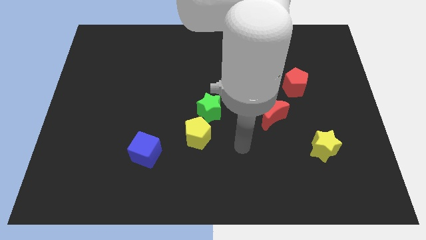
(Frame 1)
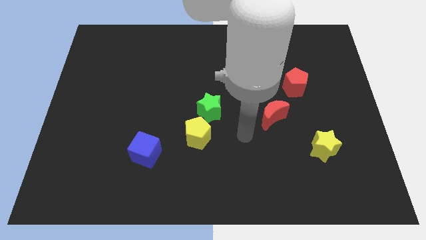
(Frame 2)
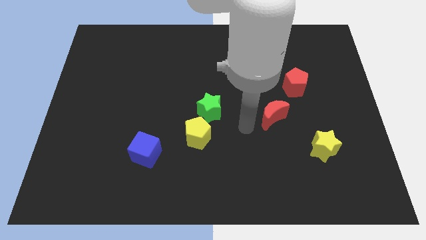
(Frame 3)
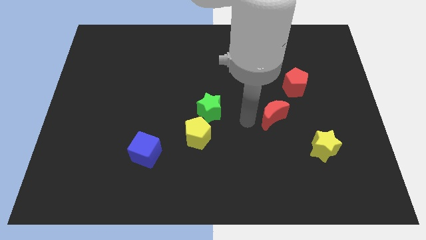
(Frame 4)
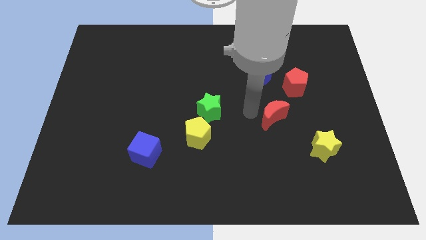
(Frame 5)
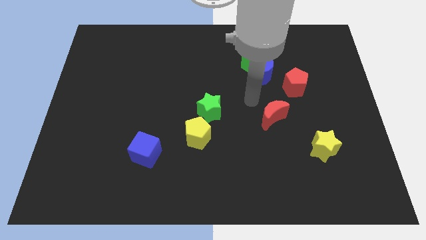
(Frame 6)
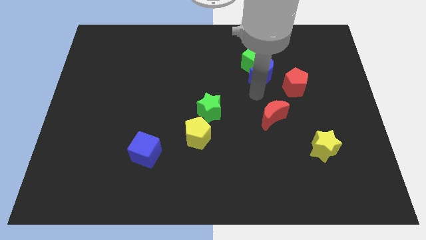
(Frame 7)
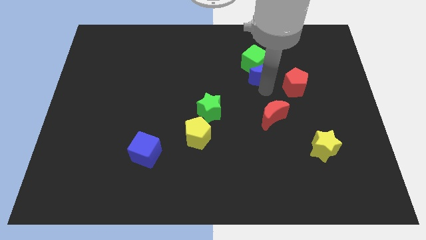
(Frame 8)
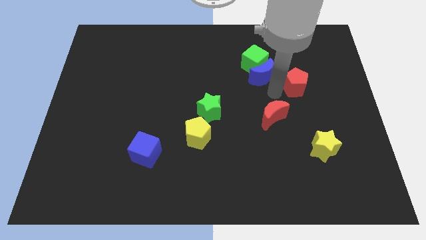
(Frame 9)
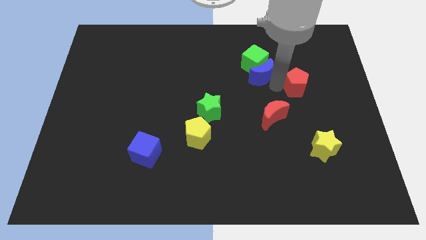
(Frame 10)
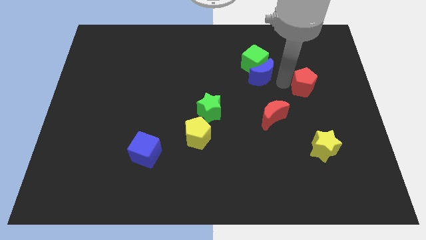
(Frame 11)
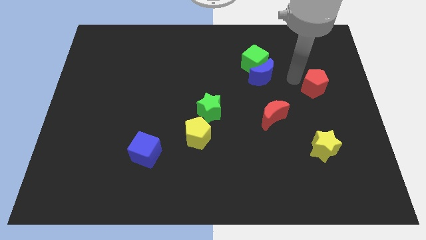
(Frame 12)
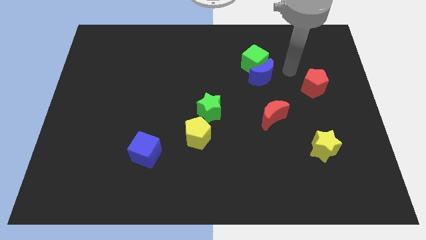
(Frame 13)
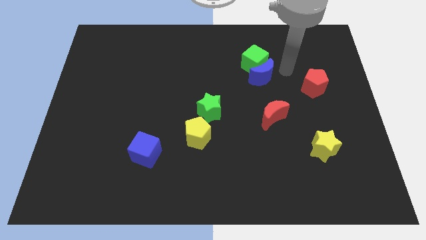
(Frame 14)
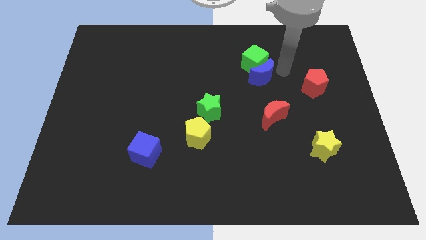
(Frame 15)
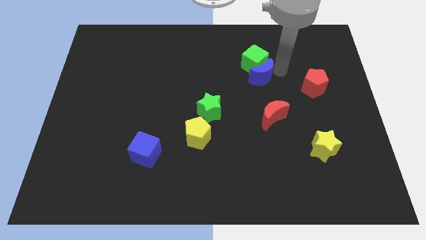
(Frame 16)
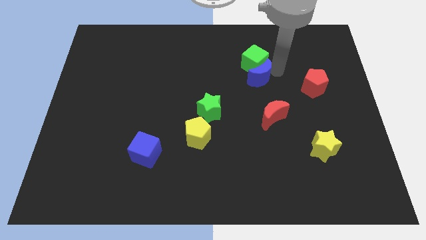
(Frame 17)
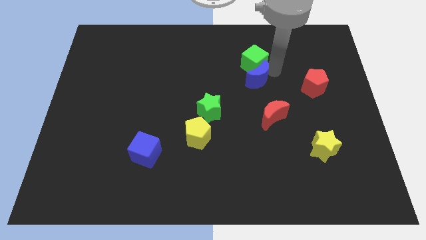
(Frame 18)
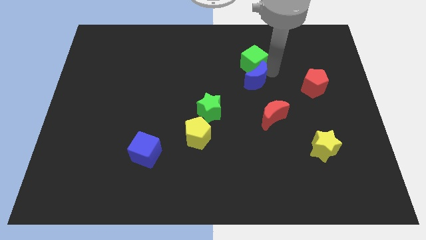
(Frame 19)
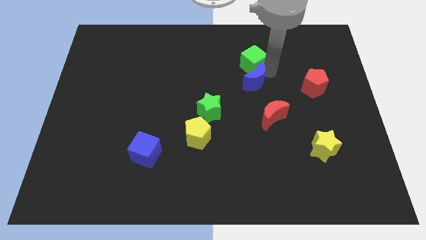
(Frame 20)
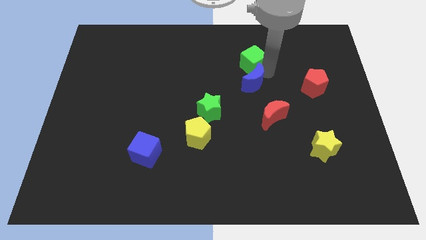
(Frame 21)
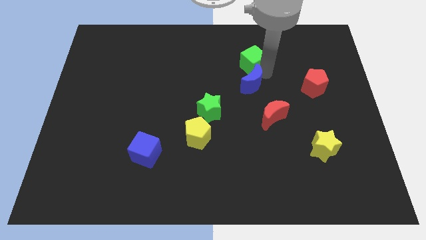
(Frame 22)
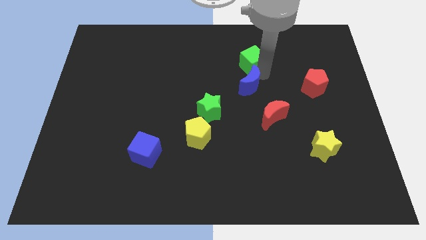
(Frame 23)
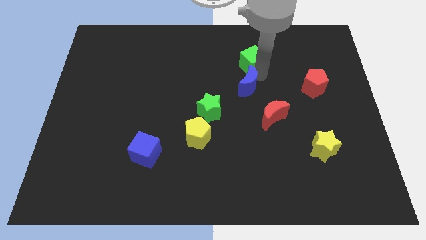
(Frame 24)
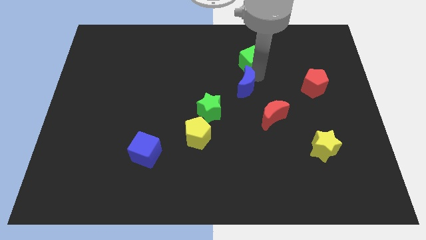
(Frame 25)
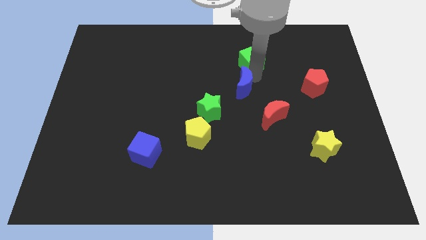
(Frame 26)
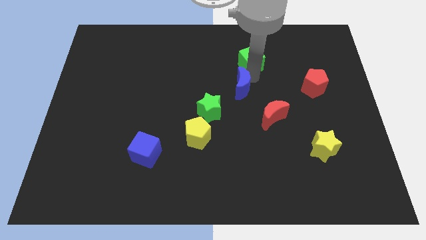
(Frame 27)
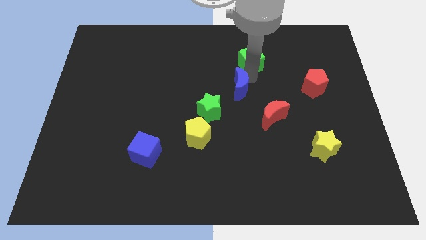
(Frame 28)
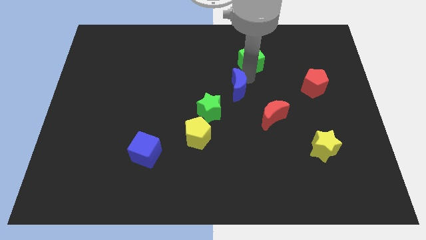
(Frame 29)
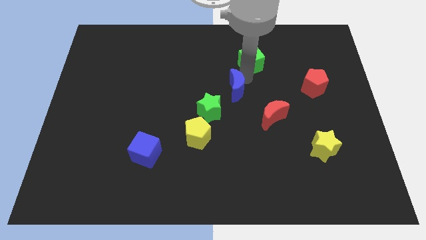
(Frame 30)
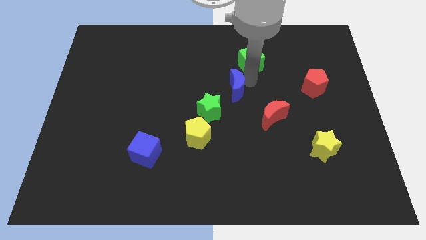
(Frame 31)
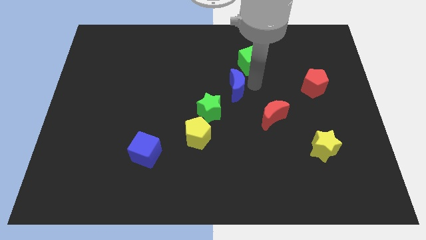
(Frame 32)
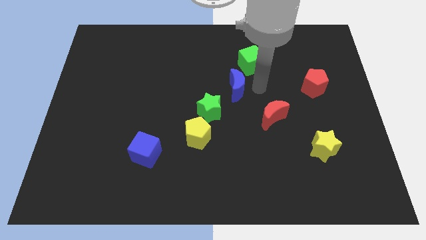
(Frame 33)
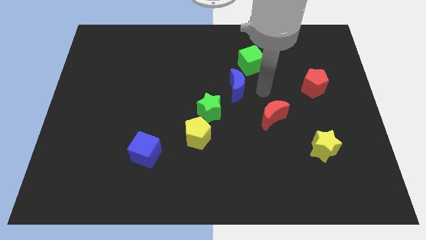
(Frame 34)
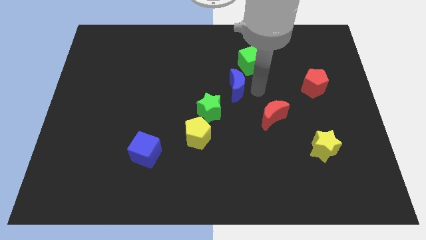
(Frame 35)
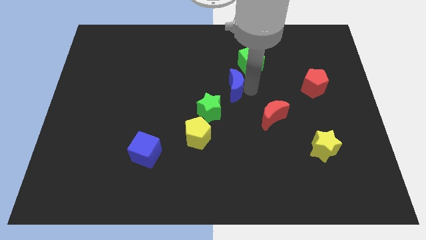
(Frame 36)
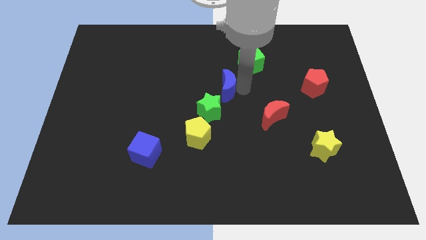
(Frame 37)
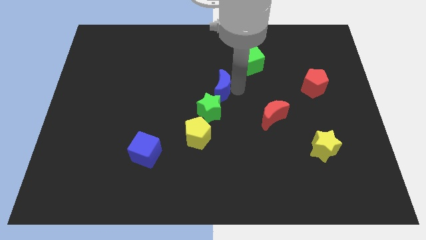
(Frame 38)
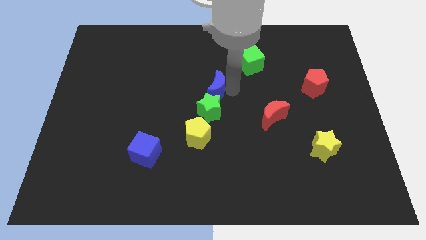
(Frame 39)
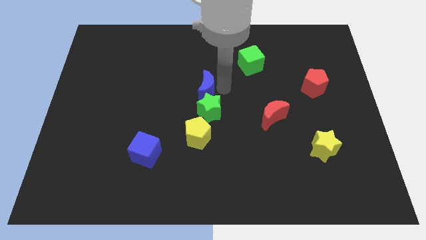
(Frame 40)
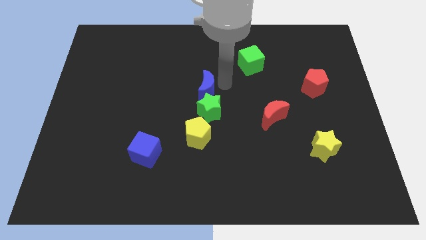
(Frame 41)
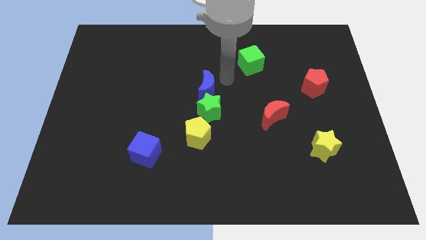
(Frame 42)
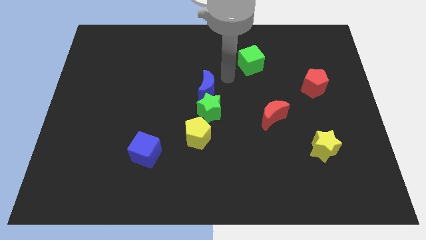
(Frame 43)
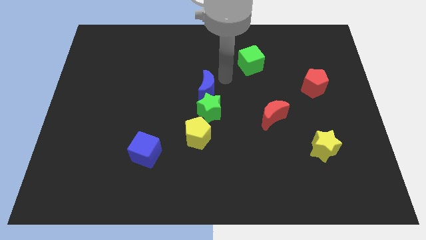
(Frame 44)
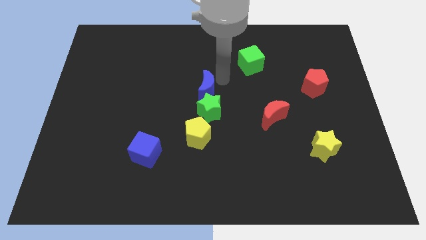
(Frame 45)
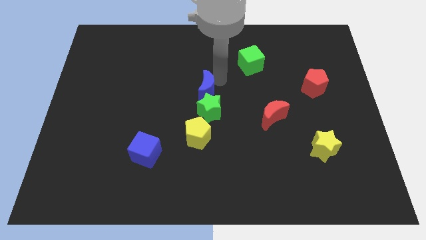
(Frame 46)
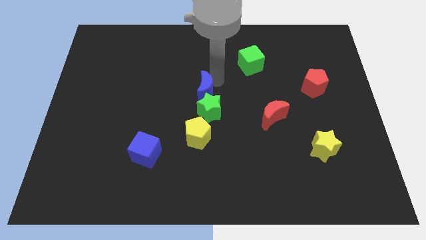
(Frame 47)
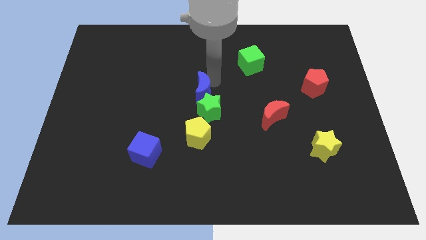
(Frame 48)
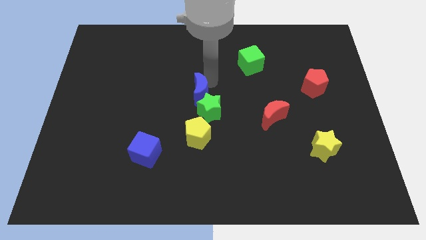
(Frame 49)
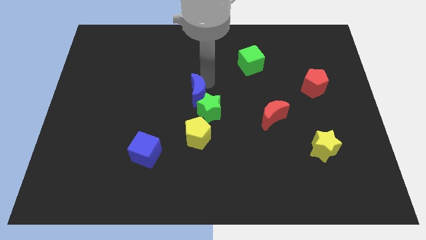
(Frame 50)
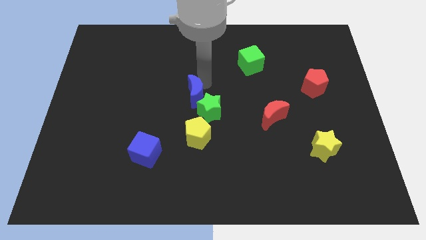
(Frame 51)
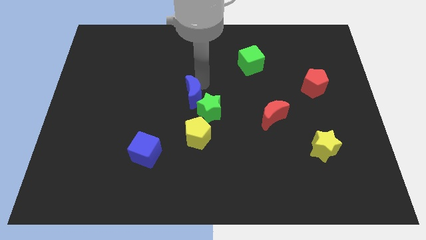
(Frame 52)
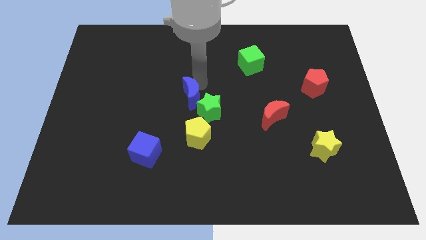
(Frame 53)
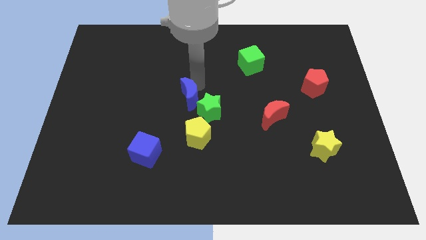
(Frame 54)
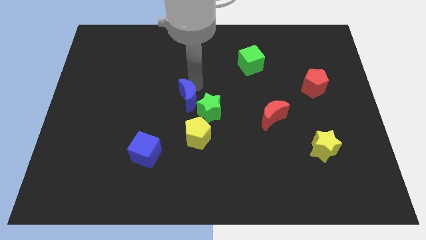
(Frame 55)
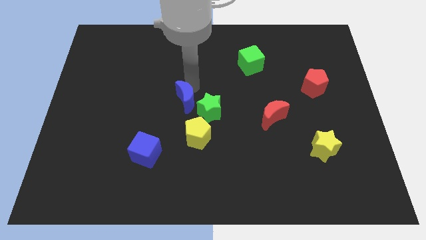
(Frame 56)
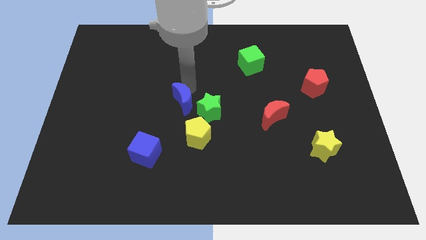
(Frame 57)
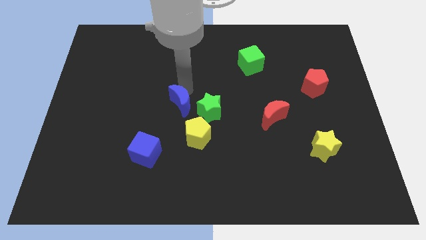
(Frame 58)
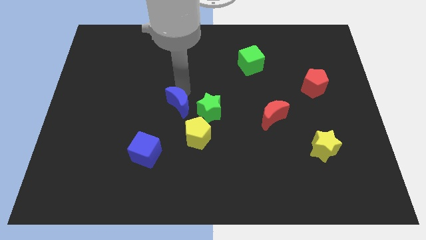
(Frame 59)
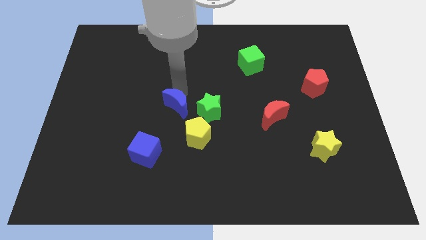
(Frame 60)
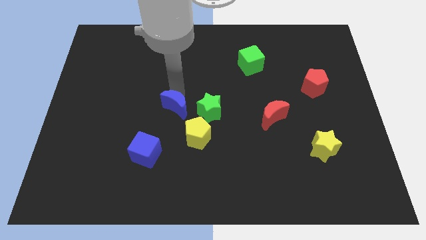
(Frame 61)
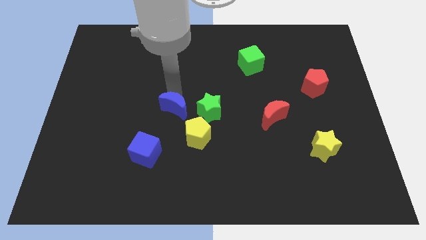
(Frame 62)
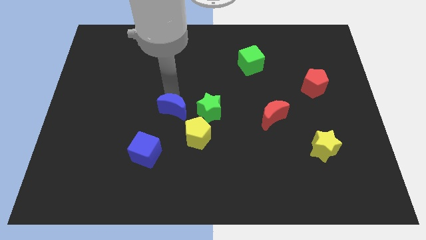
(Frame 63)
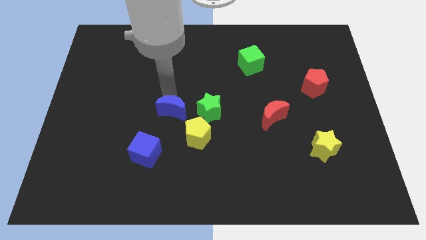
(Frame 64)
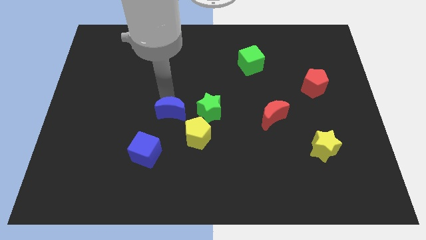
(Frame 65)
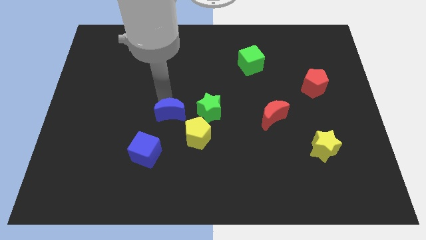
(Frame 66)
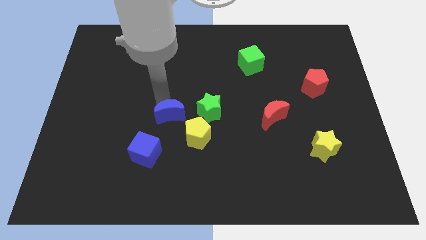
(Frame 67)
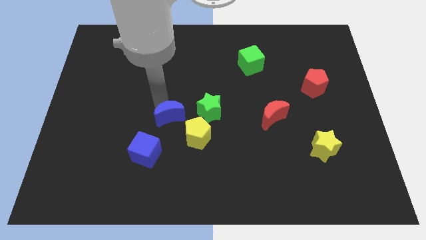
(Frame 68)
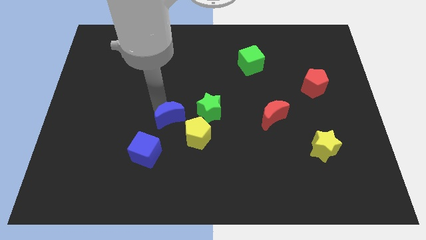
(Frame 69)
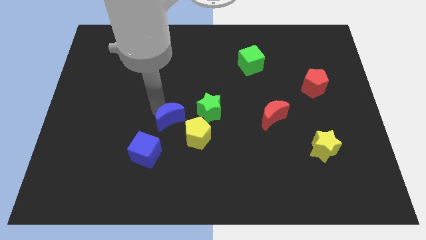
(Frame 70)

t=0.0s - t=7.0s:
push the blue moon to the bottom left side of the green star

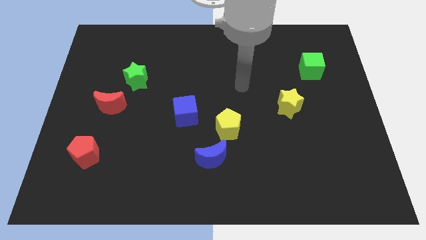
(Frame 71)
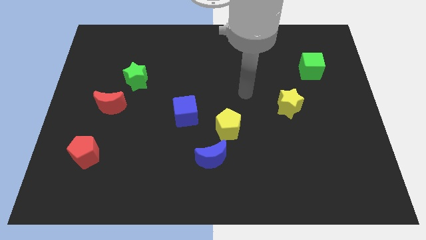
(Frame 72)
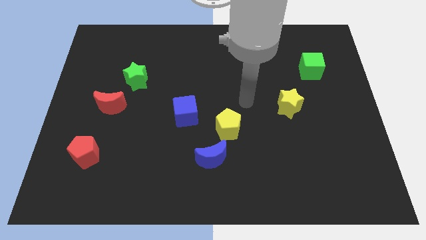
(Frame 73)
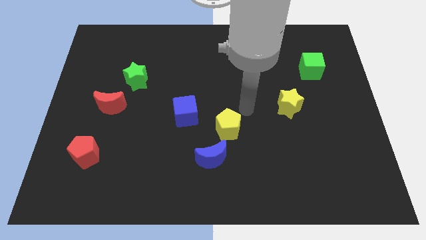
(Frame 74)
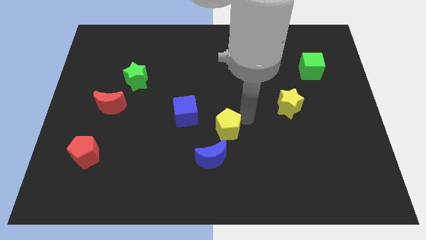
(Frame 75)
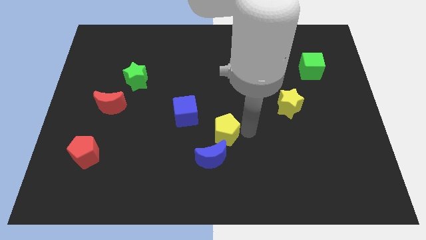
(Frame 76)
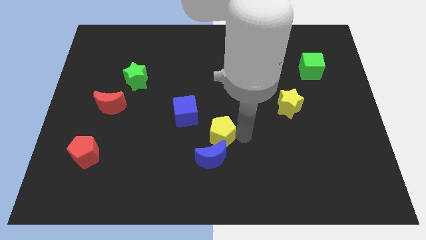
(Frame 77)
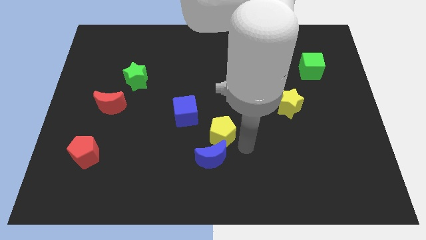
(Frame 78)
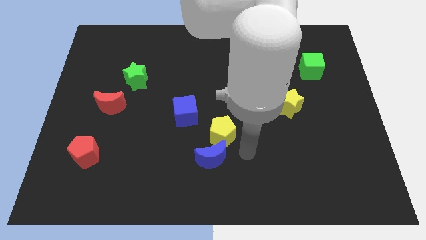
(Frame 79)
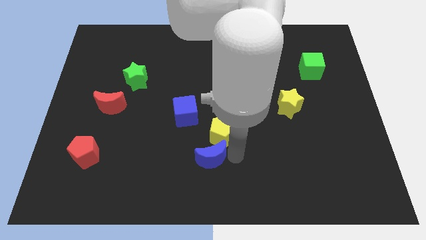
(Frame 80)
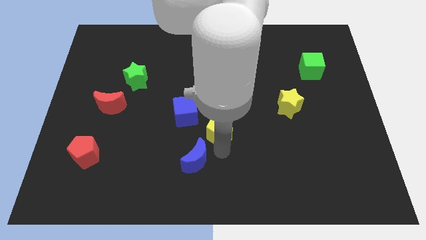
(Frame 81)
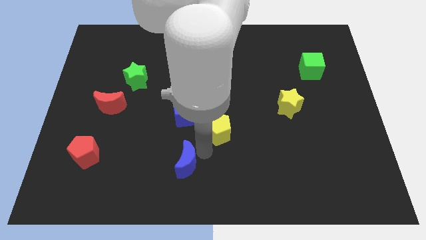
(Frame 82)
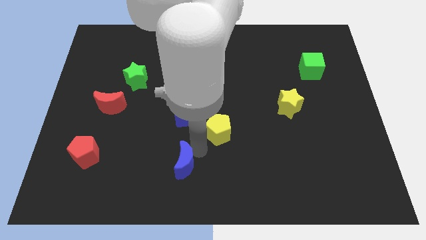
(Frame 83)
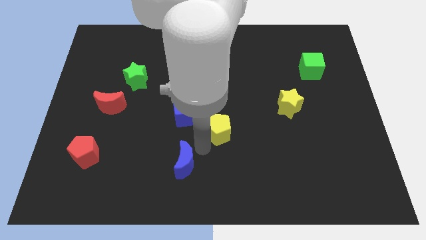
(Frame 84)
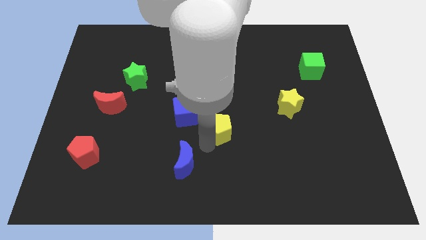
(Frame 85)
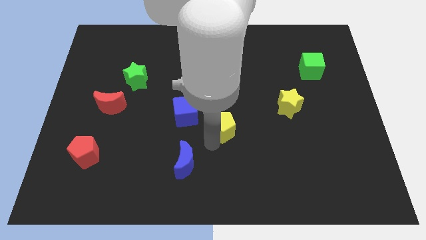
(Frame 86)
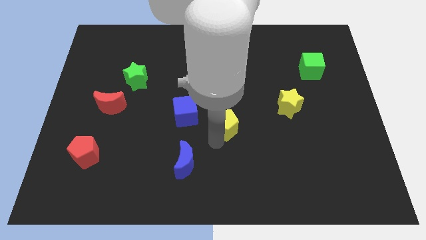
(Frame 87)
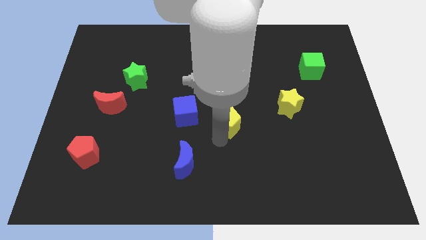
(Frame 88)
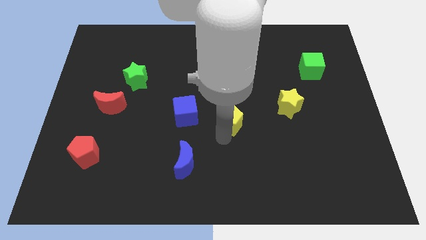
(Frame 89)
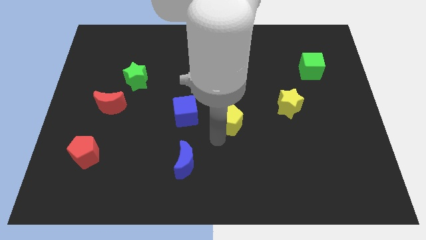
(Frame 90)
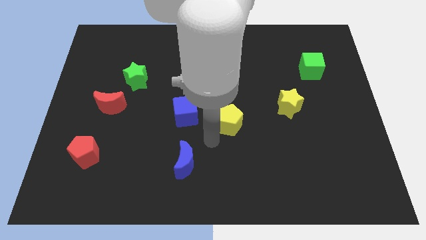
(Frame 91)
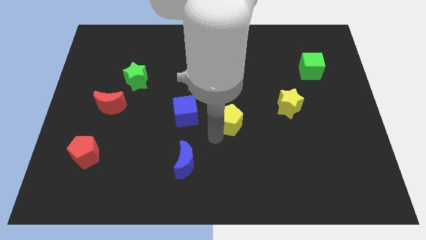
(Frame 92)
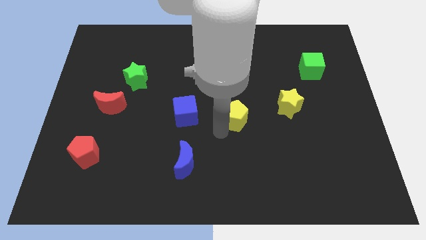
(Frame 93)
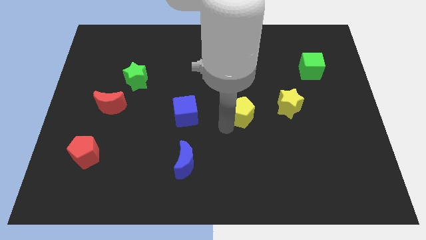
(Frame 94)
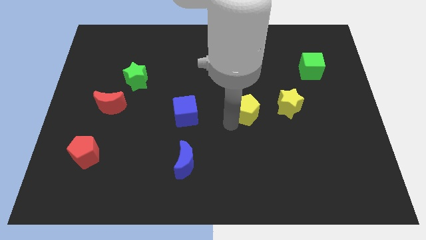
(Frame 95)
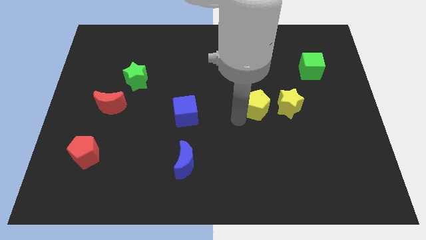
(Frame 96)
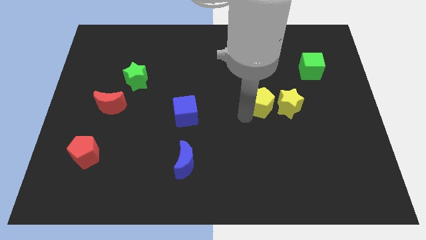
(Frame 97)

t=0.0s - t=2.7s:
move the yellow pentagon diagonally up and to the left of the yellow star
